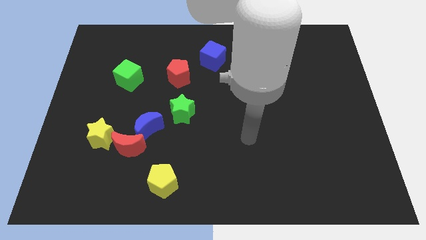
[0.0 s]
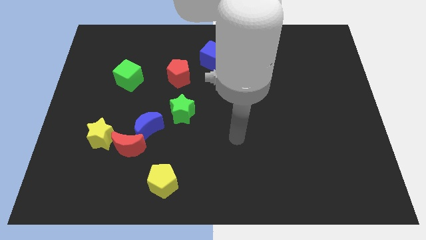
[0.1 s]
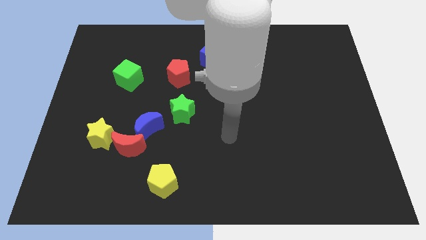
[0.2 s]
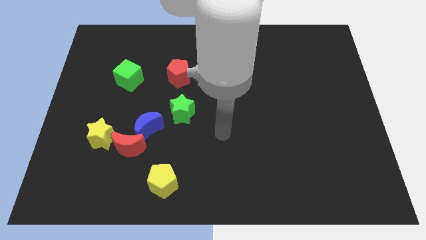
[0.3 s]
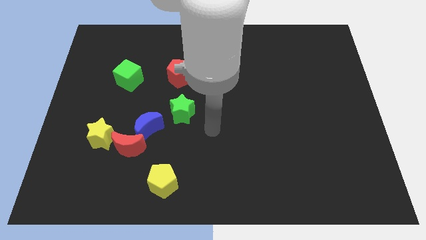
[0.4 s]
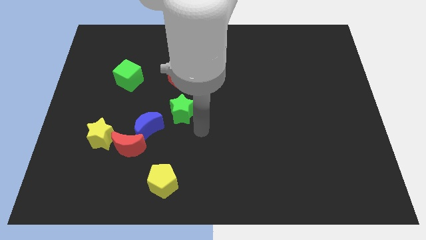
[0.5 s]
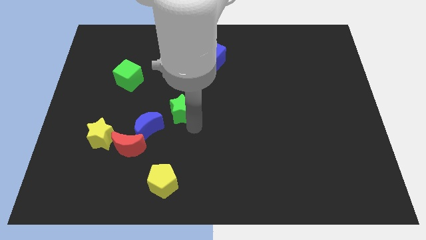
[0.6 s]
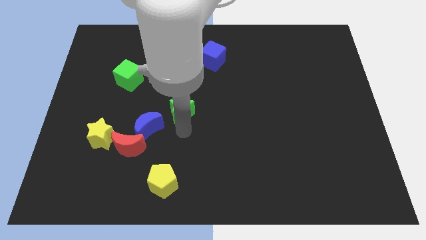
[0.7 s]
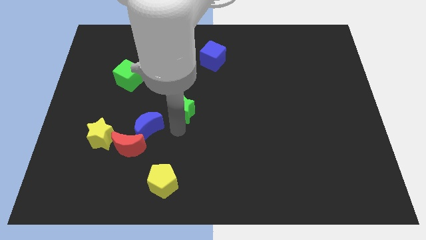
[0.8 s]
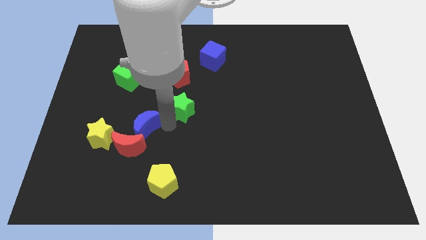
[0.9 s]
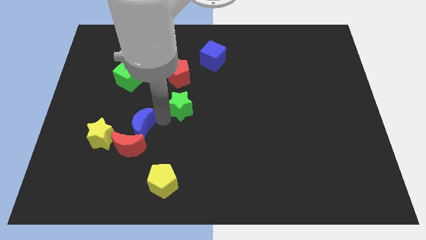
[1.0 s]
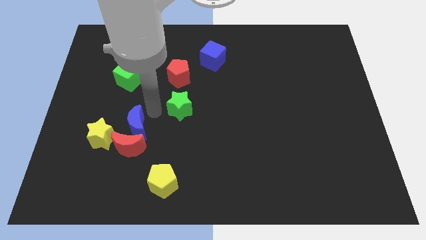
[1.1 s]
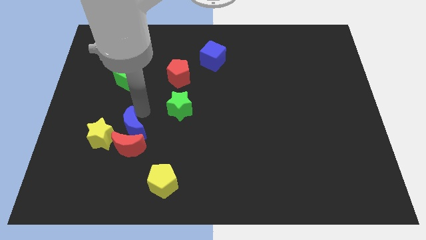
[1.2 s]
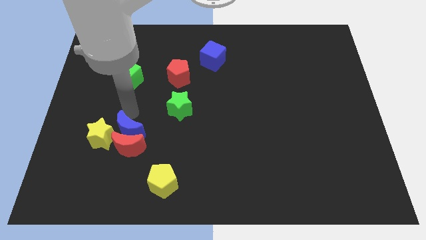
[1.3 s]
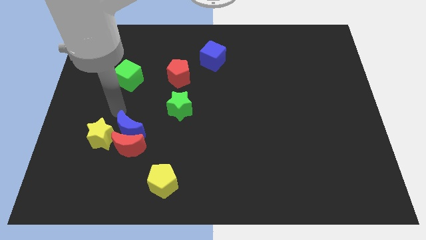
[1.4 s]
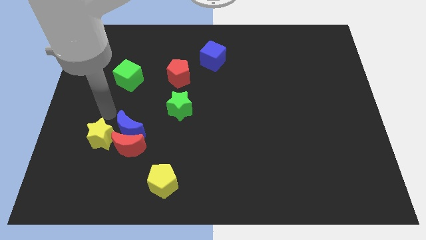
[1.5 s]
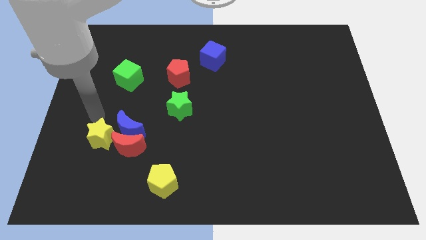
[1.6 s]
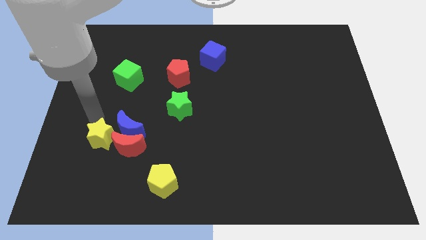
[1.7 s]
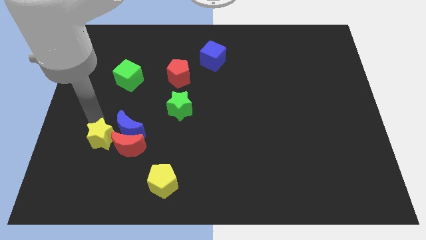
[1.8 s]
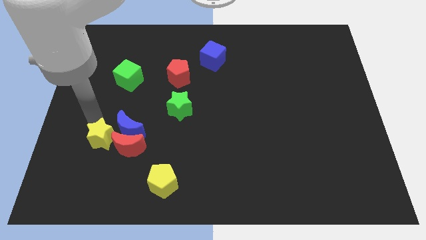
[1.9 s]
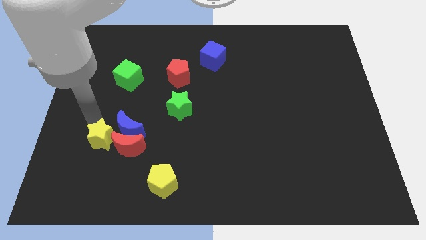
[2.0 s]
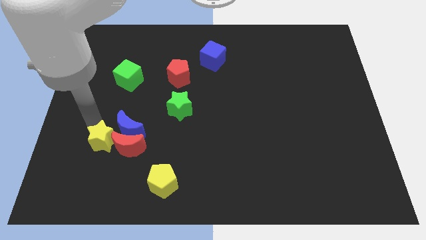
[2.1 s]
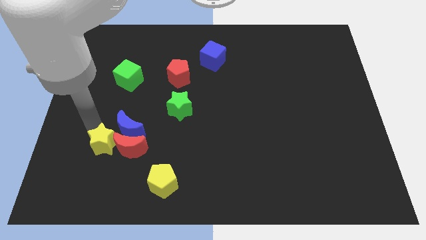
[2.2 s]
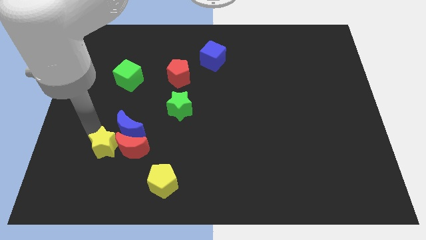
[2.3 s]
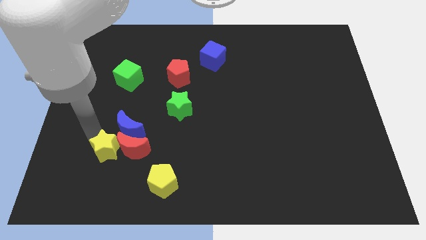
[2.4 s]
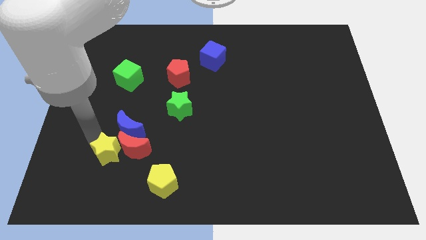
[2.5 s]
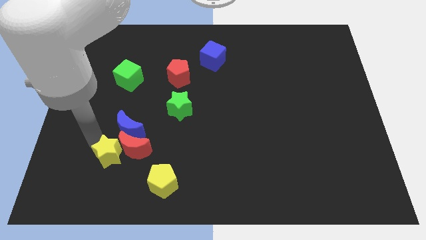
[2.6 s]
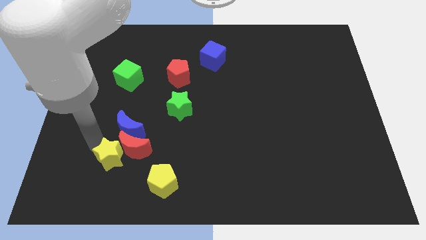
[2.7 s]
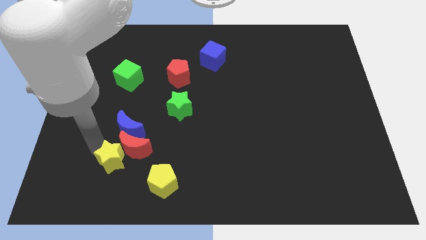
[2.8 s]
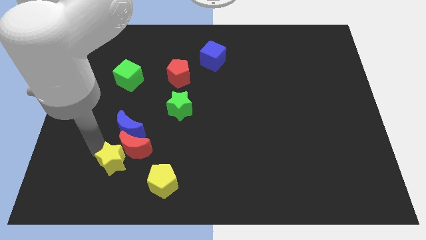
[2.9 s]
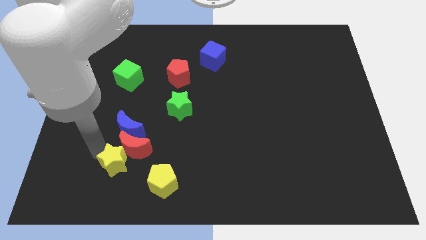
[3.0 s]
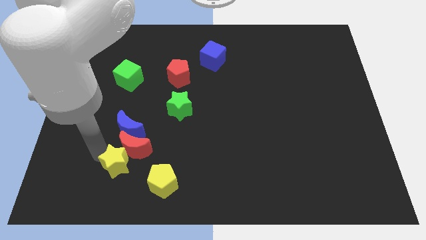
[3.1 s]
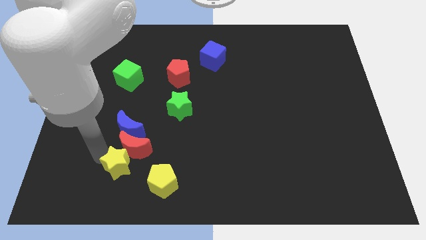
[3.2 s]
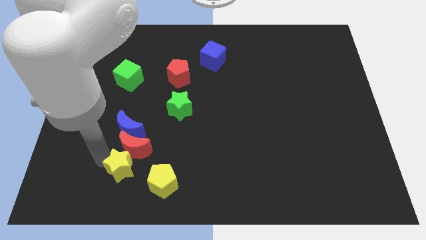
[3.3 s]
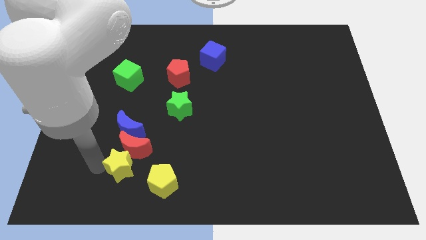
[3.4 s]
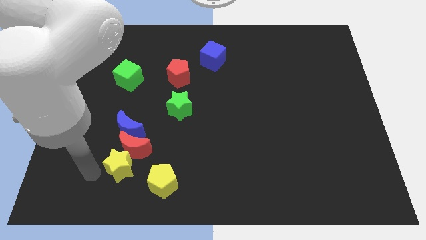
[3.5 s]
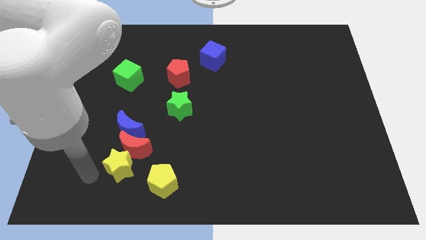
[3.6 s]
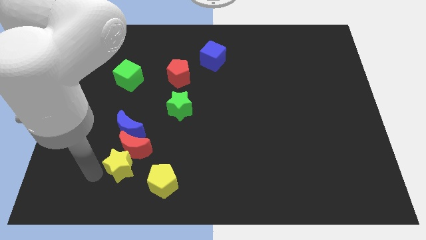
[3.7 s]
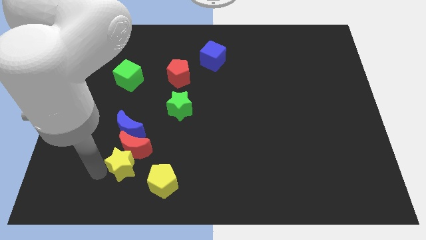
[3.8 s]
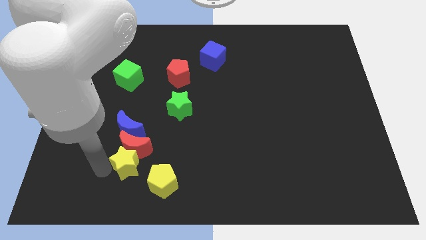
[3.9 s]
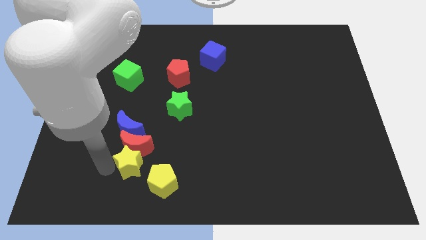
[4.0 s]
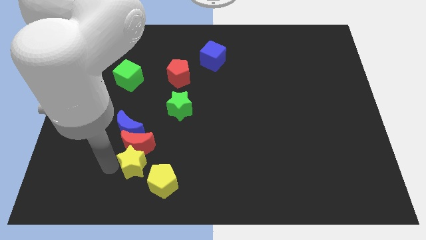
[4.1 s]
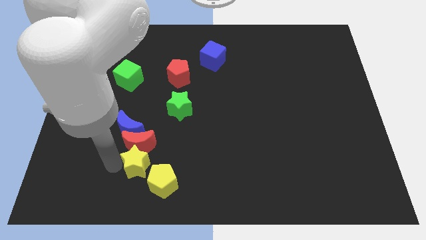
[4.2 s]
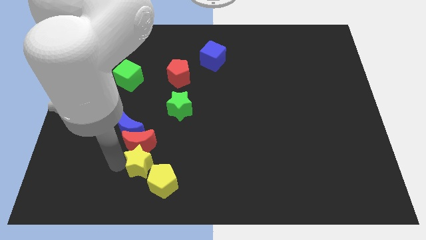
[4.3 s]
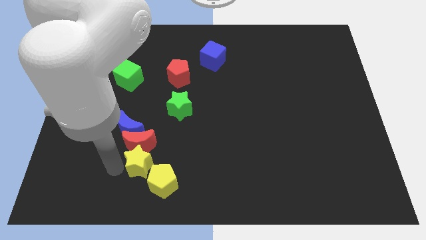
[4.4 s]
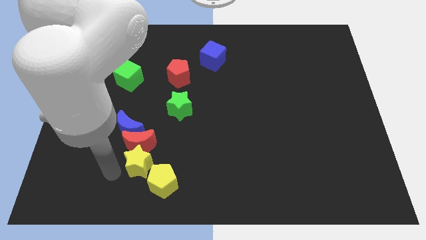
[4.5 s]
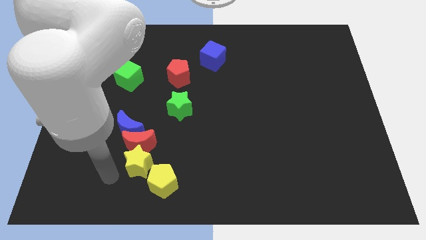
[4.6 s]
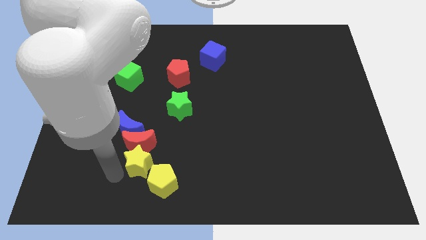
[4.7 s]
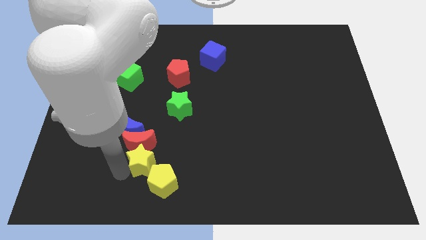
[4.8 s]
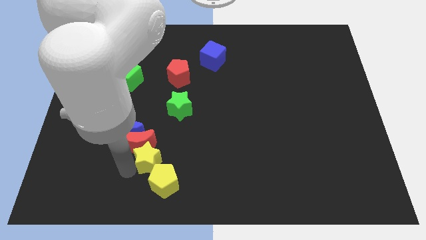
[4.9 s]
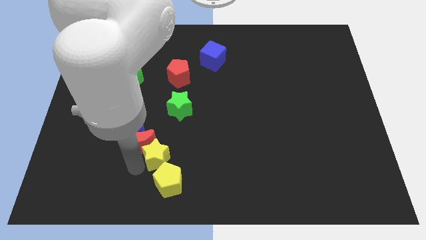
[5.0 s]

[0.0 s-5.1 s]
move the yellow star below the green star

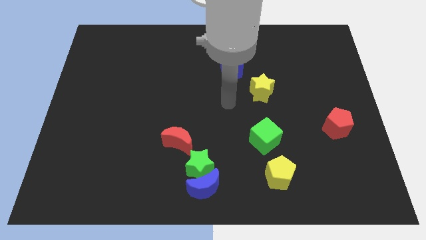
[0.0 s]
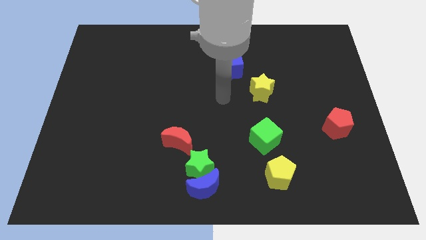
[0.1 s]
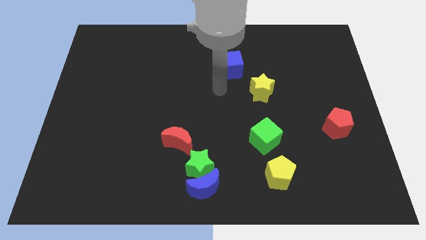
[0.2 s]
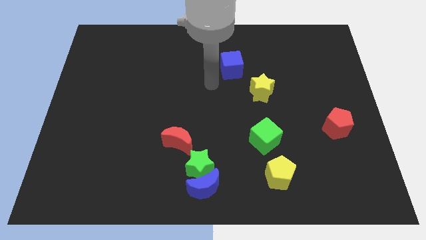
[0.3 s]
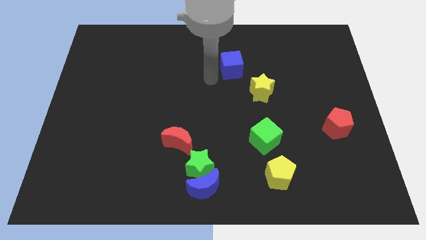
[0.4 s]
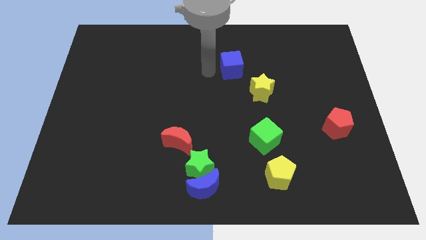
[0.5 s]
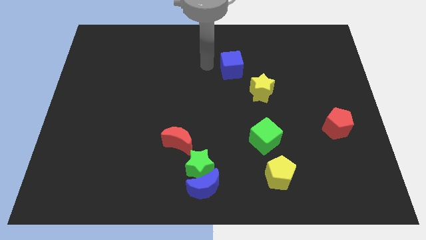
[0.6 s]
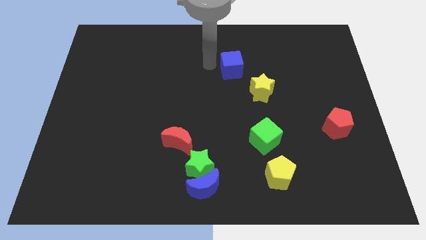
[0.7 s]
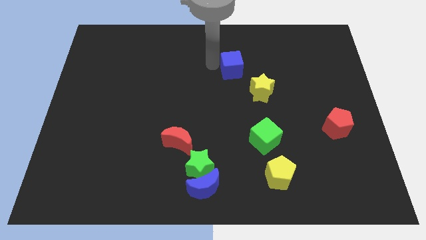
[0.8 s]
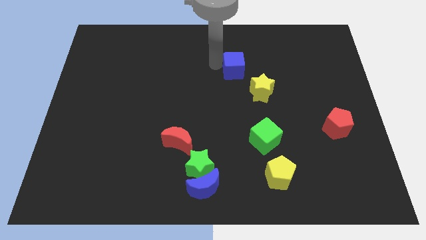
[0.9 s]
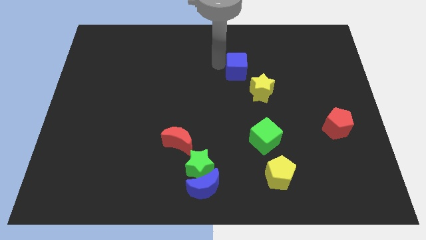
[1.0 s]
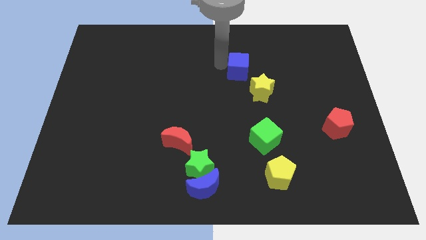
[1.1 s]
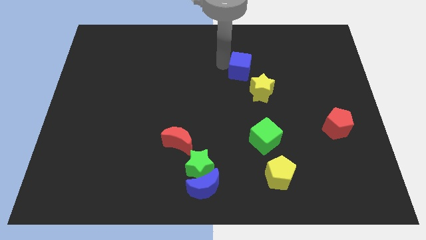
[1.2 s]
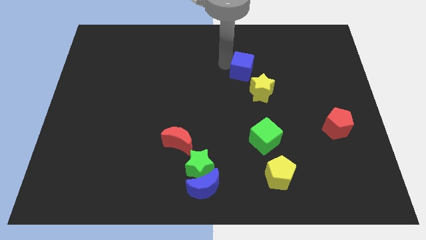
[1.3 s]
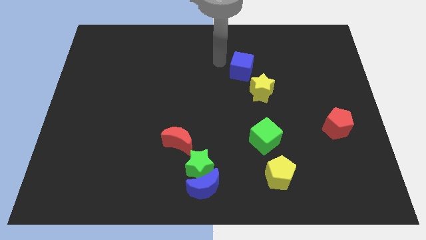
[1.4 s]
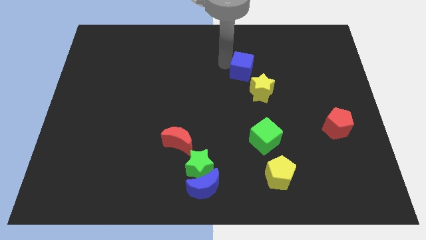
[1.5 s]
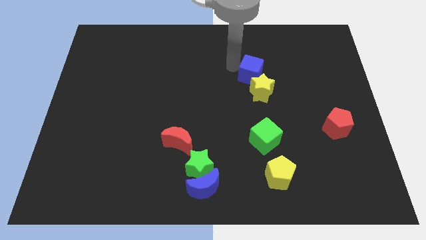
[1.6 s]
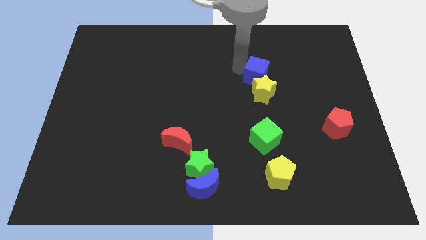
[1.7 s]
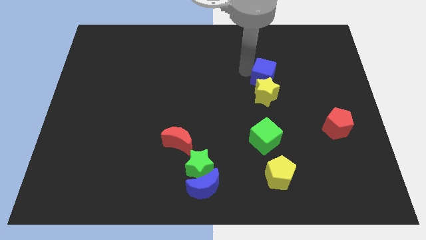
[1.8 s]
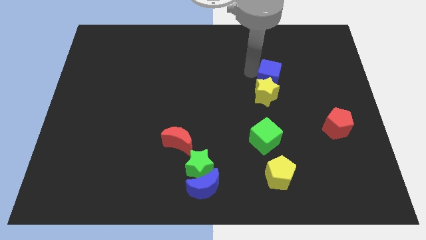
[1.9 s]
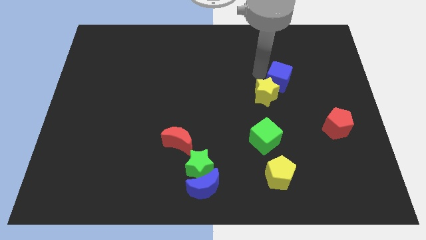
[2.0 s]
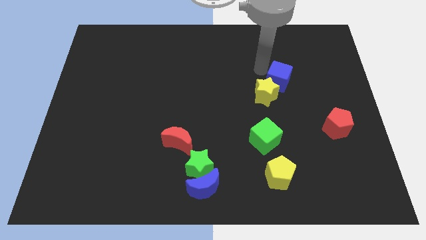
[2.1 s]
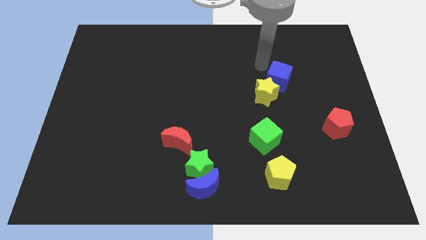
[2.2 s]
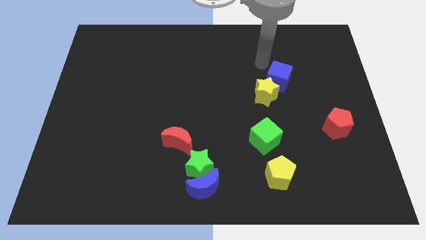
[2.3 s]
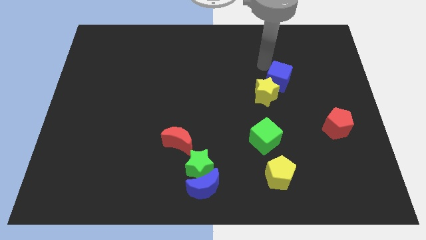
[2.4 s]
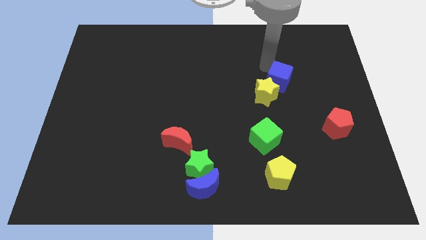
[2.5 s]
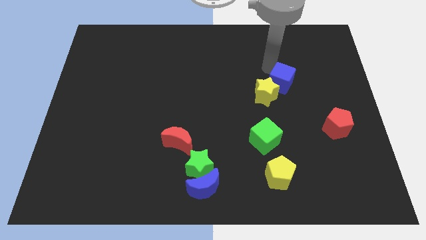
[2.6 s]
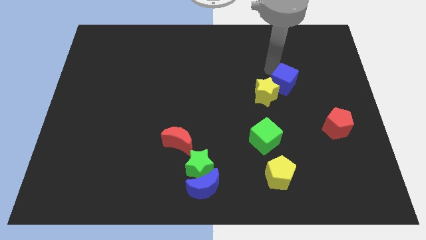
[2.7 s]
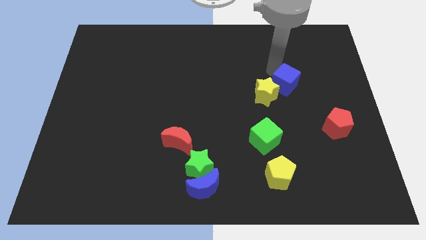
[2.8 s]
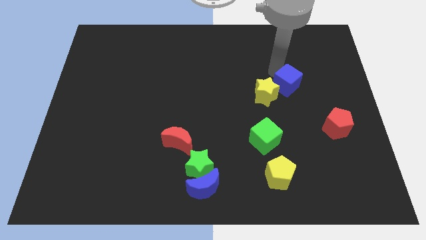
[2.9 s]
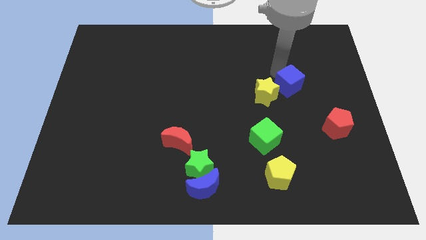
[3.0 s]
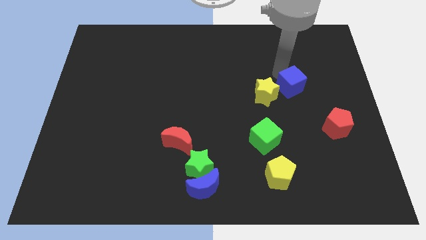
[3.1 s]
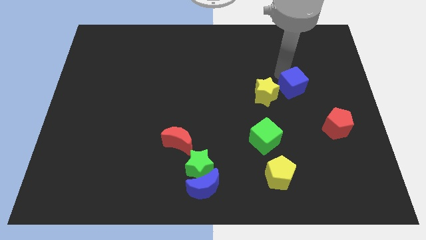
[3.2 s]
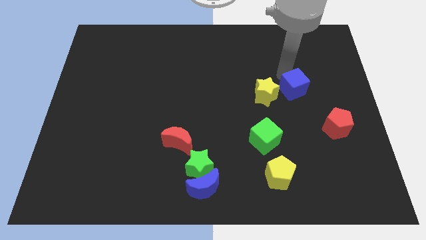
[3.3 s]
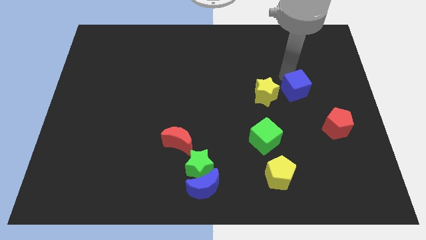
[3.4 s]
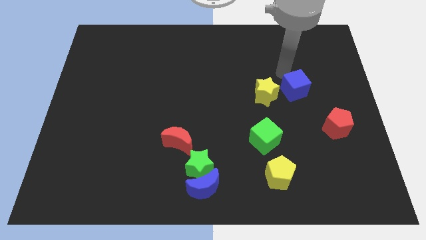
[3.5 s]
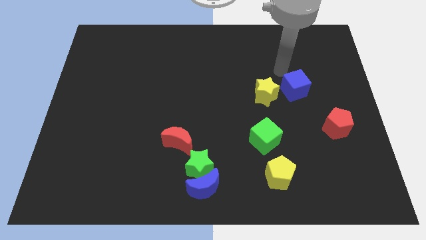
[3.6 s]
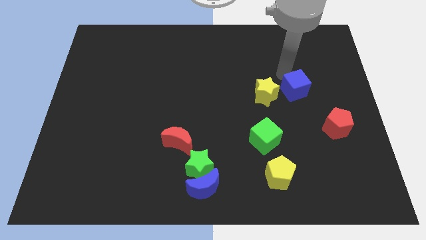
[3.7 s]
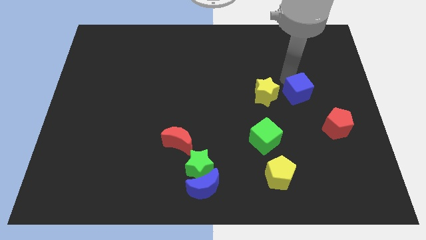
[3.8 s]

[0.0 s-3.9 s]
put the blue cube diagonally up and to the left of the red pentagon
